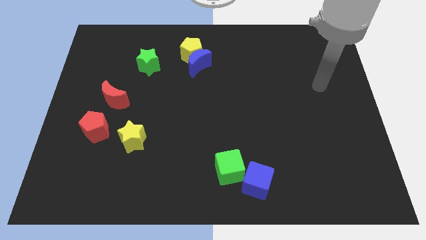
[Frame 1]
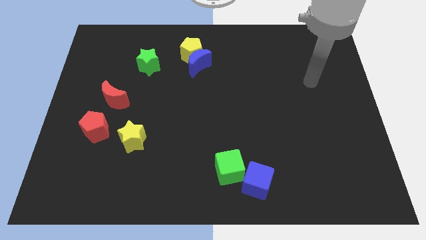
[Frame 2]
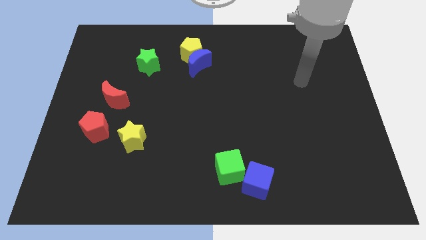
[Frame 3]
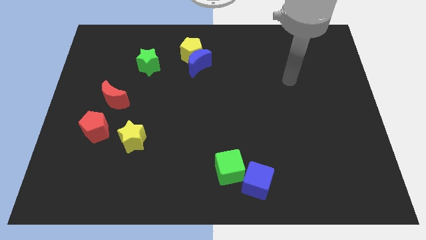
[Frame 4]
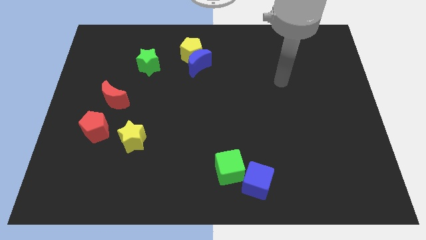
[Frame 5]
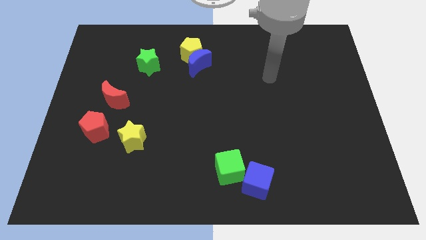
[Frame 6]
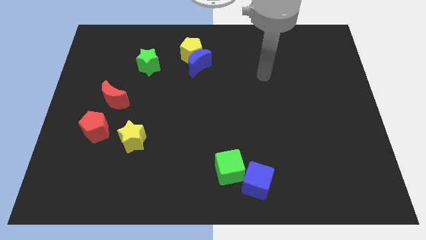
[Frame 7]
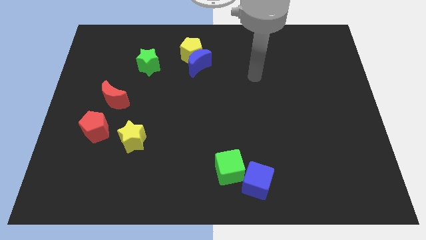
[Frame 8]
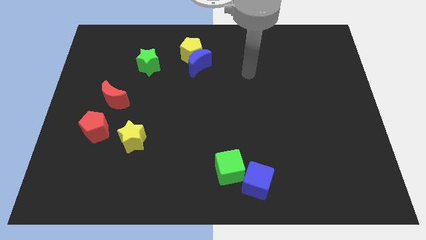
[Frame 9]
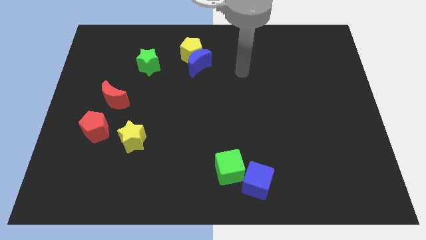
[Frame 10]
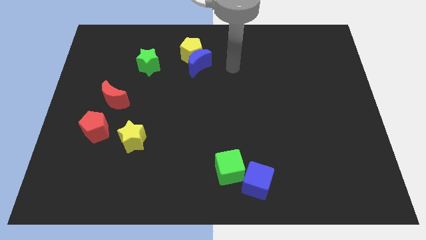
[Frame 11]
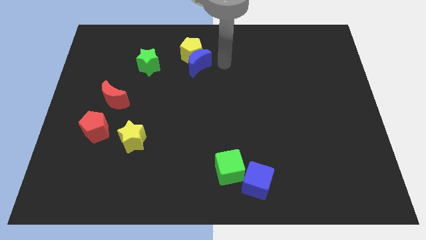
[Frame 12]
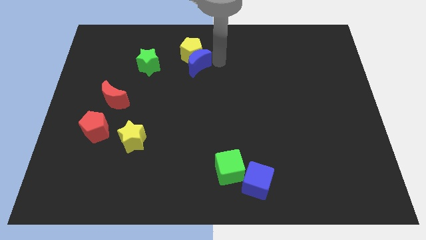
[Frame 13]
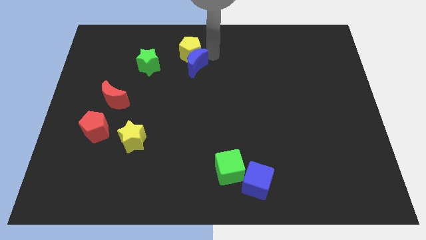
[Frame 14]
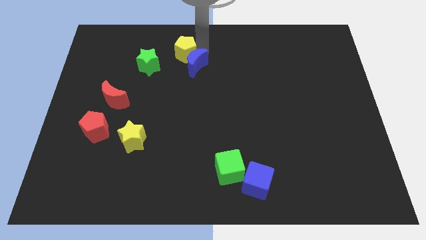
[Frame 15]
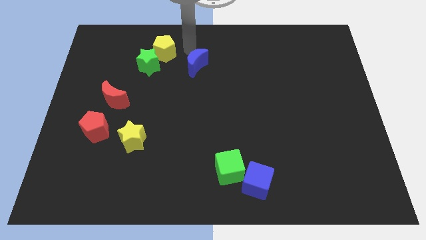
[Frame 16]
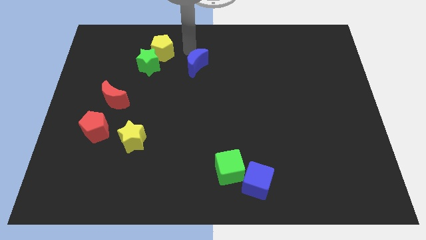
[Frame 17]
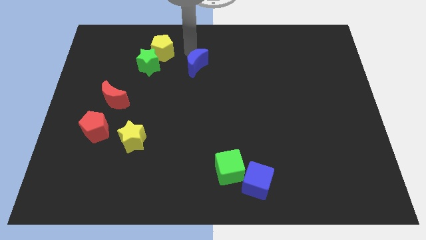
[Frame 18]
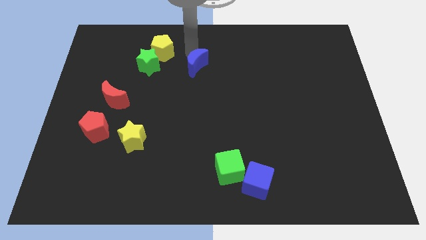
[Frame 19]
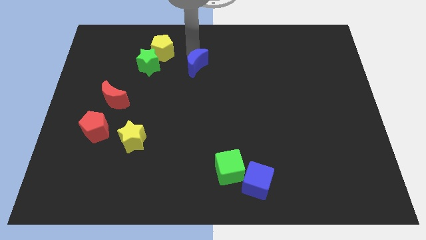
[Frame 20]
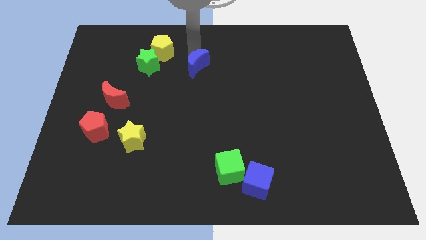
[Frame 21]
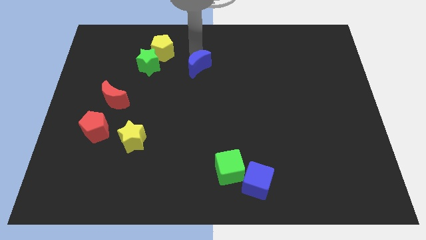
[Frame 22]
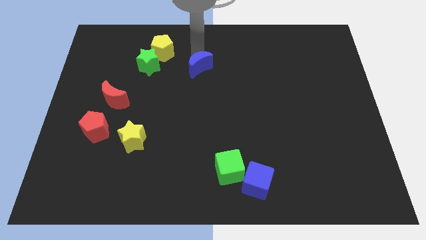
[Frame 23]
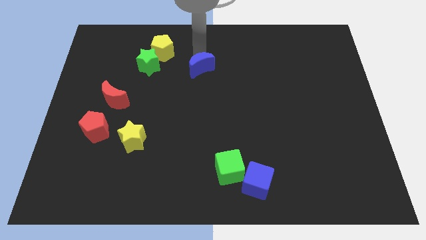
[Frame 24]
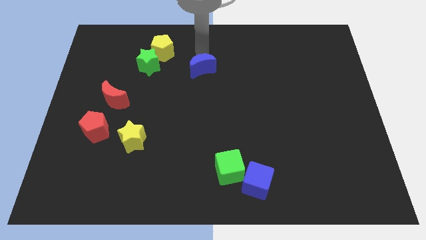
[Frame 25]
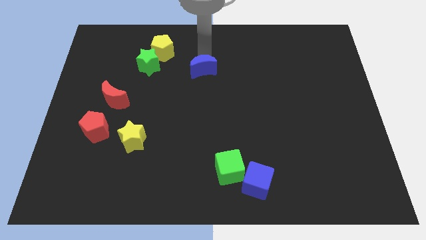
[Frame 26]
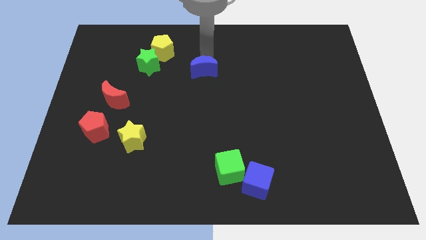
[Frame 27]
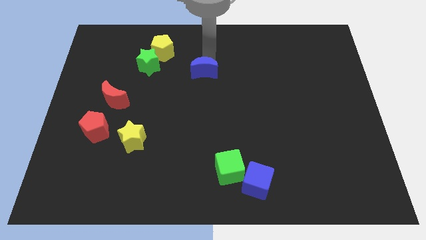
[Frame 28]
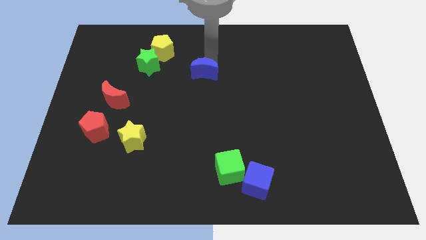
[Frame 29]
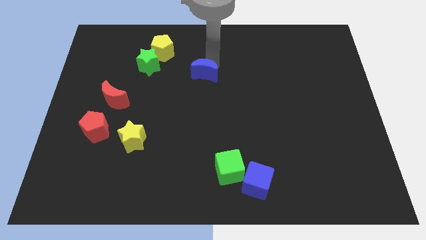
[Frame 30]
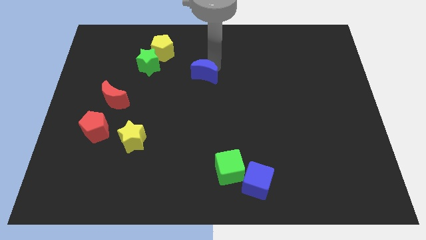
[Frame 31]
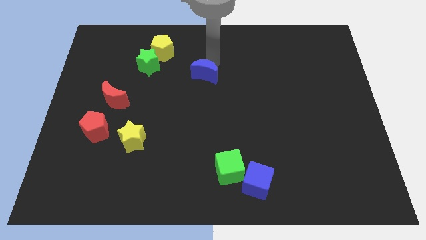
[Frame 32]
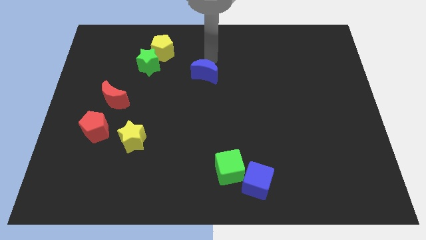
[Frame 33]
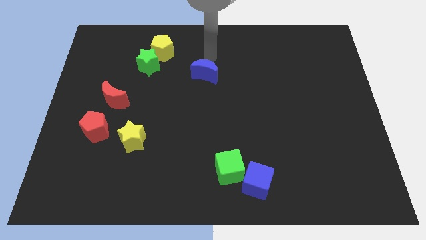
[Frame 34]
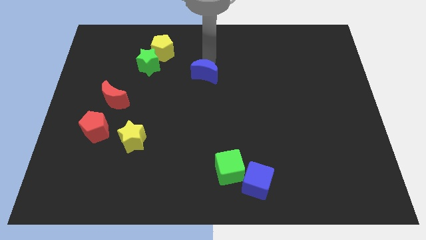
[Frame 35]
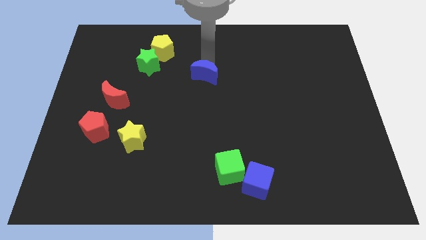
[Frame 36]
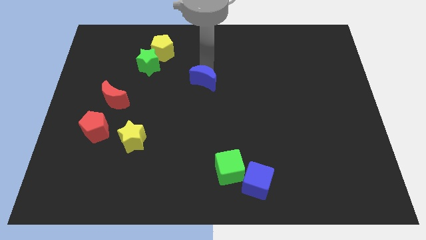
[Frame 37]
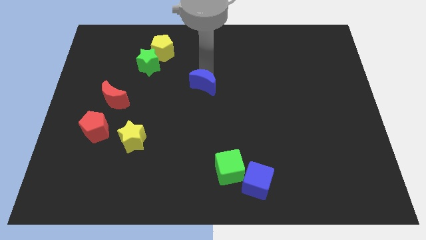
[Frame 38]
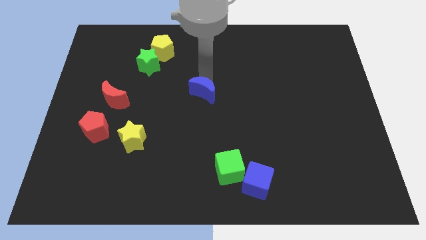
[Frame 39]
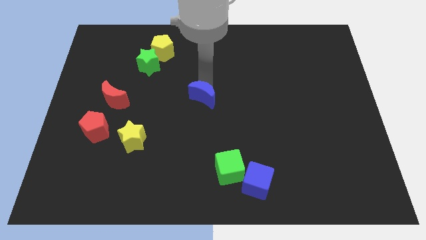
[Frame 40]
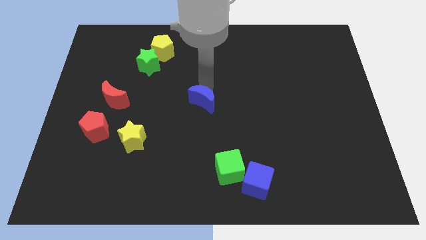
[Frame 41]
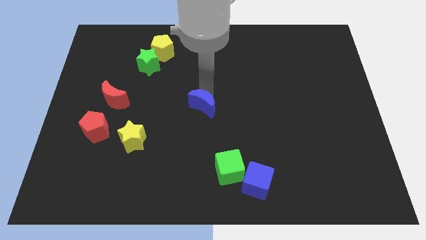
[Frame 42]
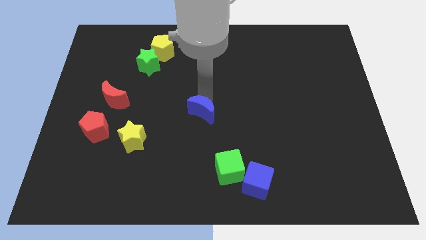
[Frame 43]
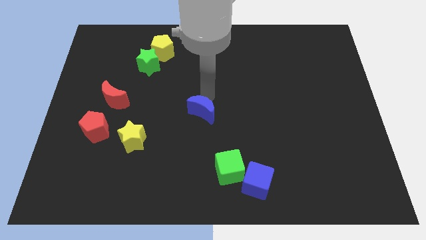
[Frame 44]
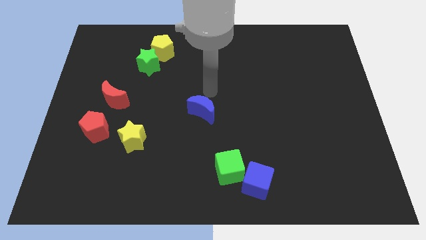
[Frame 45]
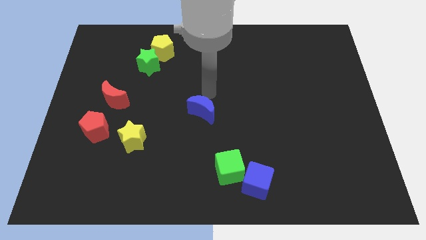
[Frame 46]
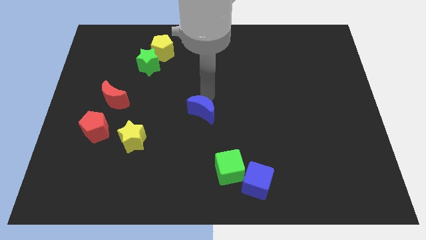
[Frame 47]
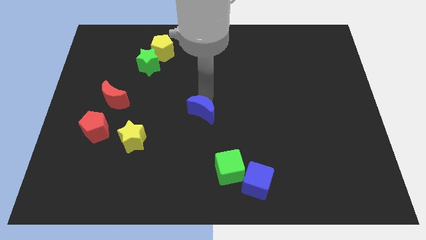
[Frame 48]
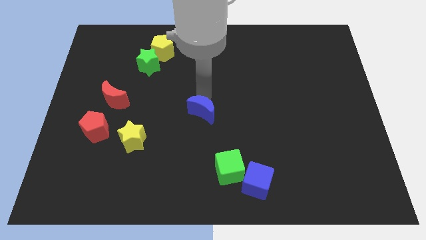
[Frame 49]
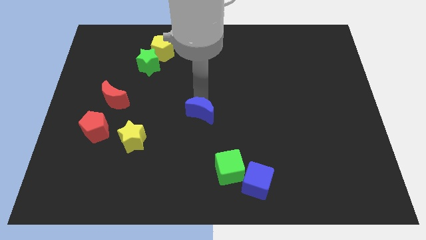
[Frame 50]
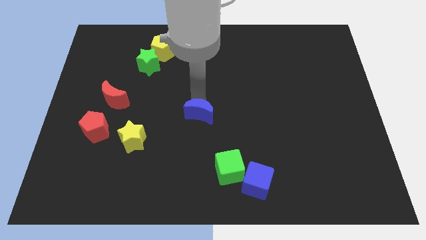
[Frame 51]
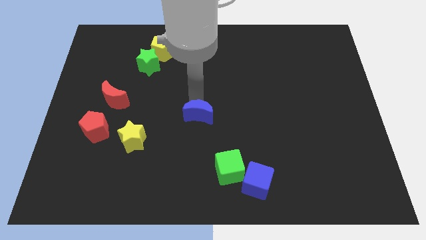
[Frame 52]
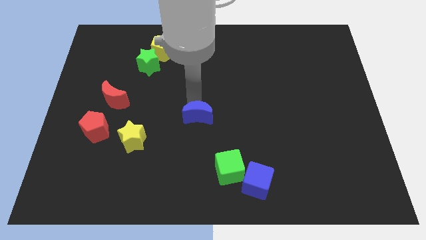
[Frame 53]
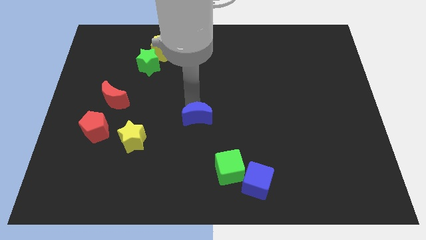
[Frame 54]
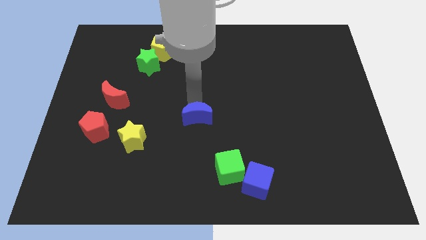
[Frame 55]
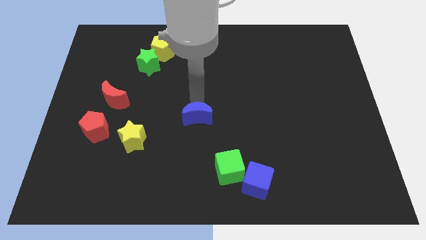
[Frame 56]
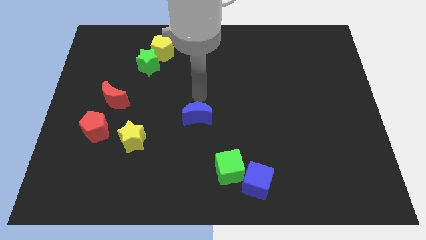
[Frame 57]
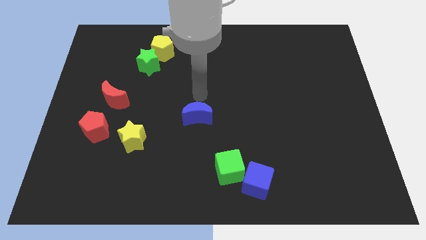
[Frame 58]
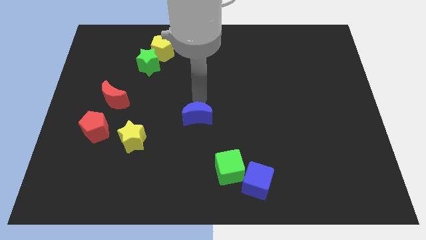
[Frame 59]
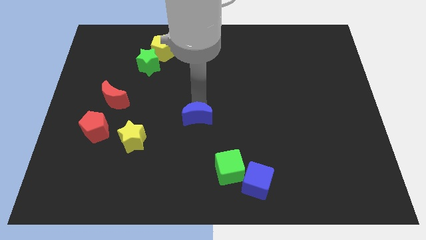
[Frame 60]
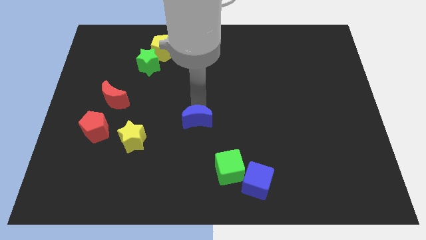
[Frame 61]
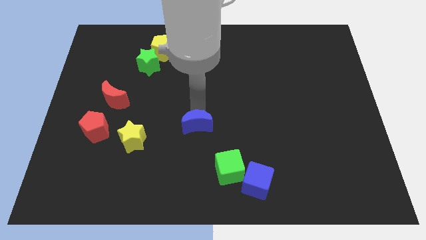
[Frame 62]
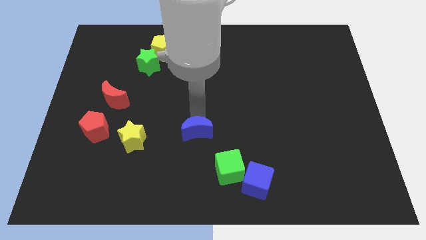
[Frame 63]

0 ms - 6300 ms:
slide the blue moon down

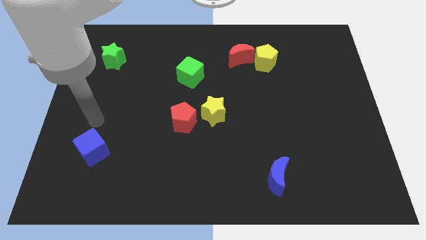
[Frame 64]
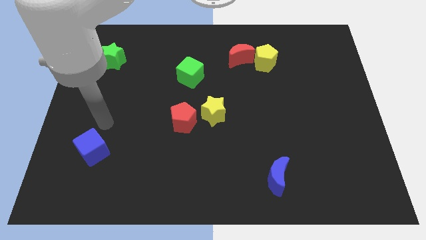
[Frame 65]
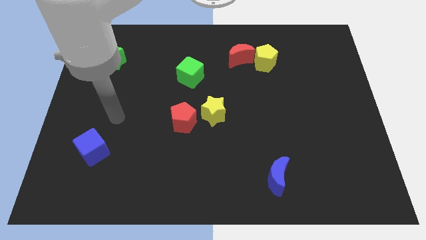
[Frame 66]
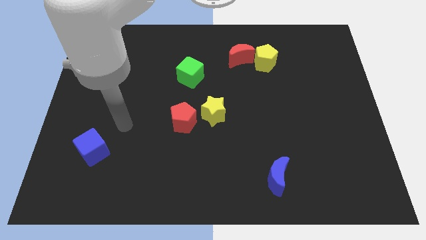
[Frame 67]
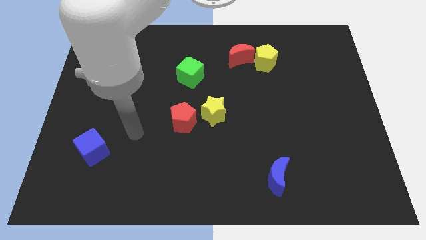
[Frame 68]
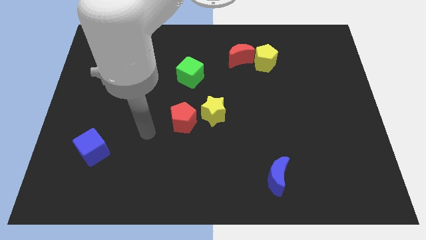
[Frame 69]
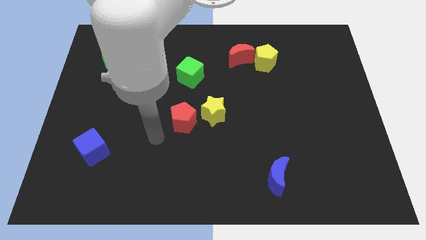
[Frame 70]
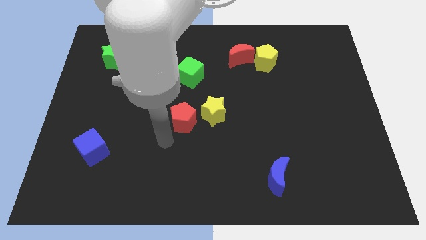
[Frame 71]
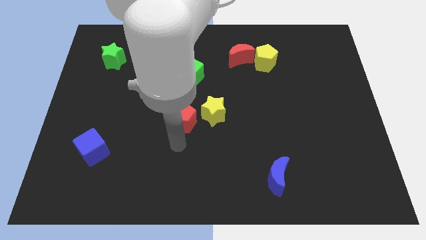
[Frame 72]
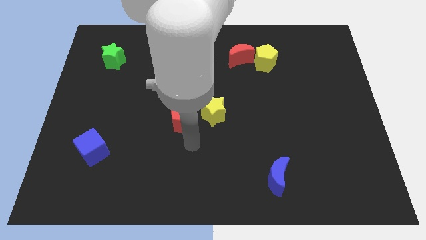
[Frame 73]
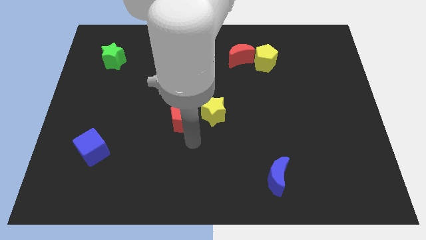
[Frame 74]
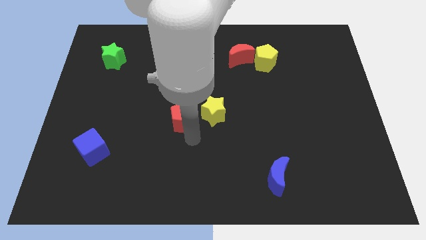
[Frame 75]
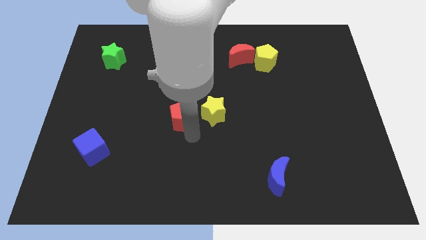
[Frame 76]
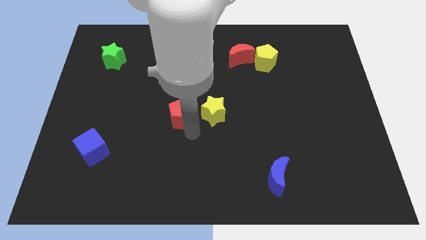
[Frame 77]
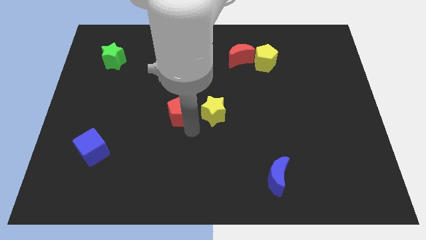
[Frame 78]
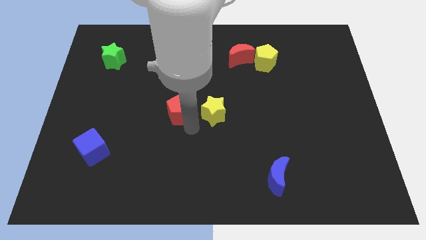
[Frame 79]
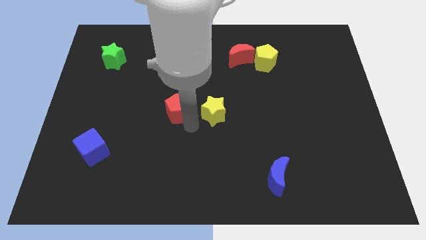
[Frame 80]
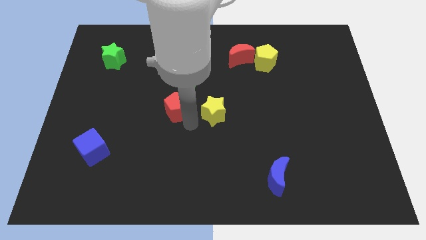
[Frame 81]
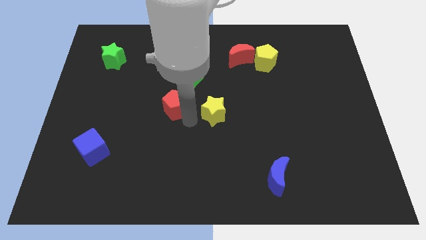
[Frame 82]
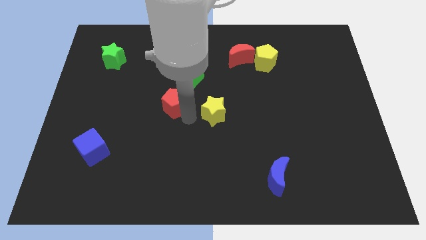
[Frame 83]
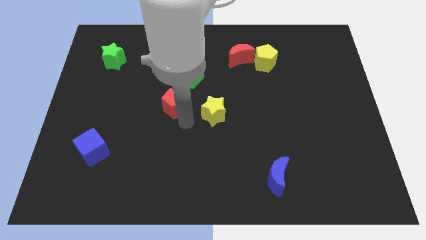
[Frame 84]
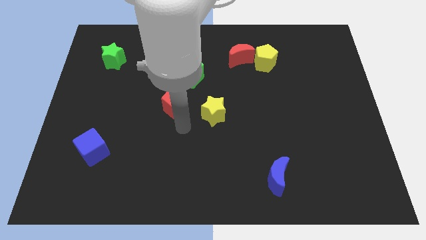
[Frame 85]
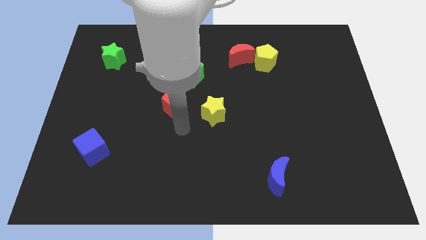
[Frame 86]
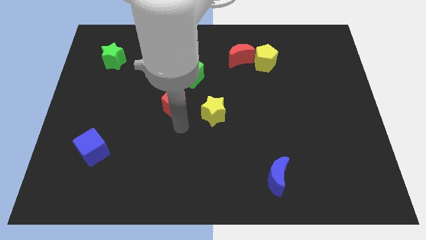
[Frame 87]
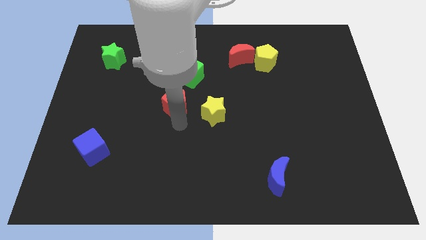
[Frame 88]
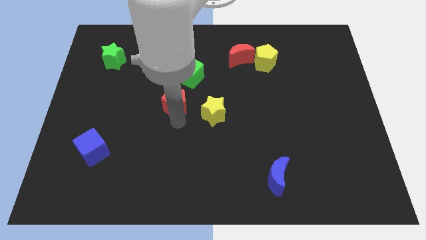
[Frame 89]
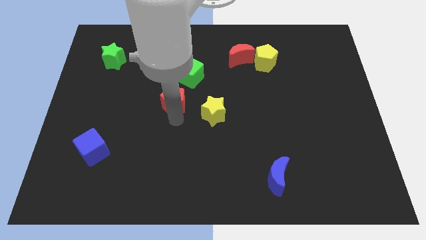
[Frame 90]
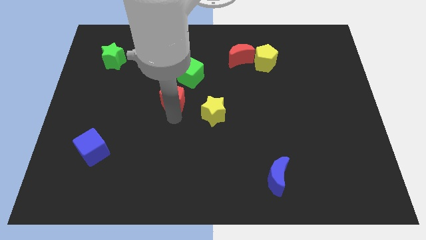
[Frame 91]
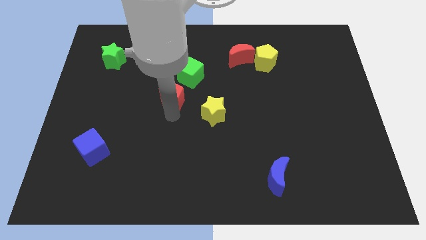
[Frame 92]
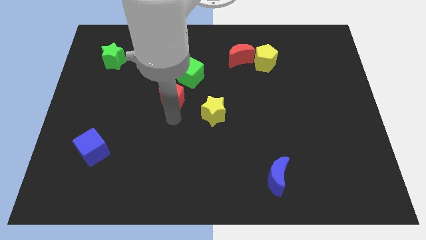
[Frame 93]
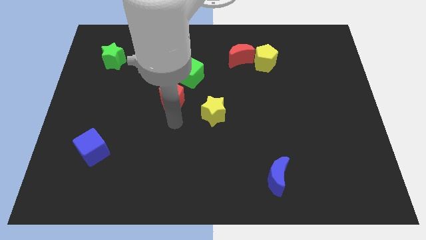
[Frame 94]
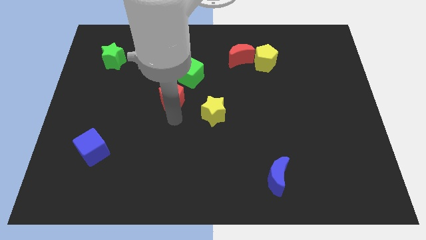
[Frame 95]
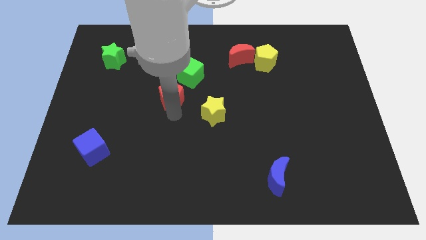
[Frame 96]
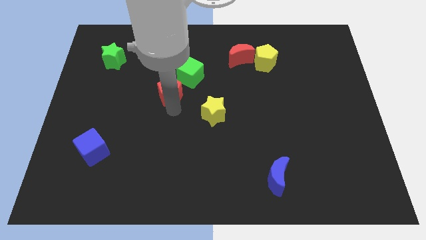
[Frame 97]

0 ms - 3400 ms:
slide the red pentagon upwards a little
